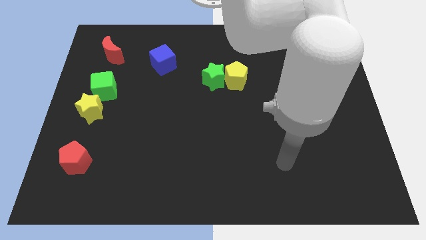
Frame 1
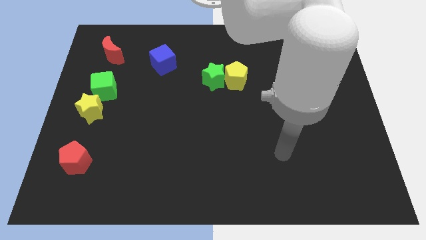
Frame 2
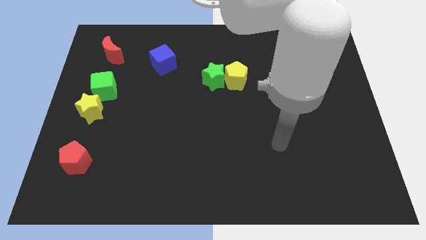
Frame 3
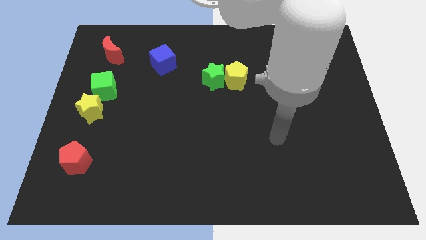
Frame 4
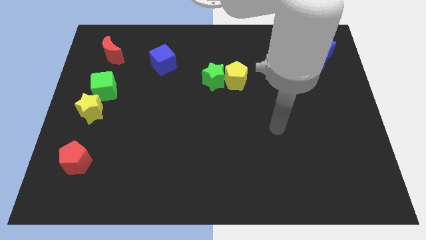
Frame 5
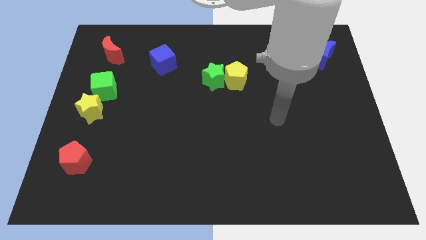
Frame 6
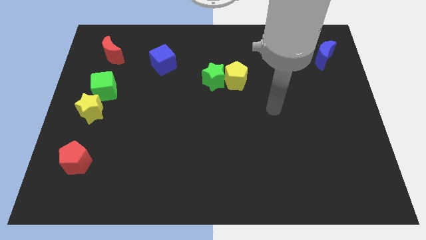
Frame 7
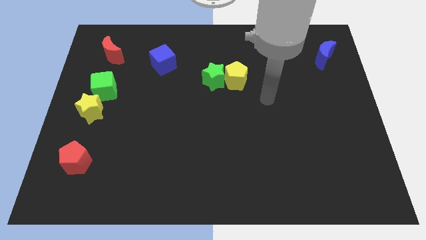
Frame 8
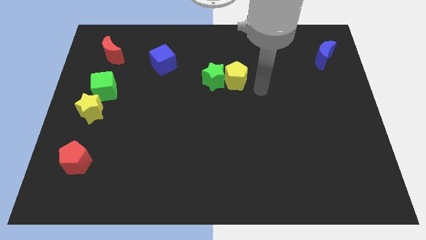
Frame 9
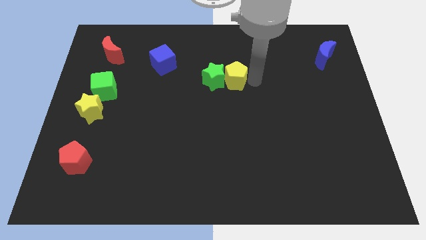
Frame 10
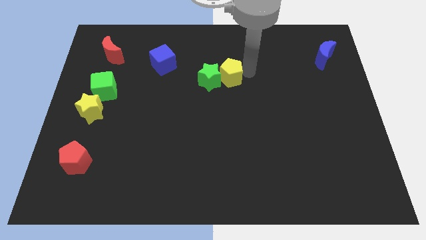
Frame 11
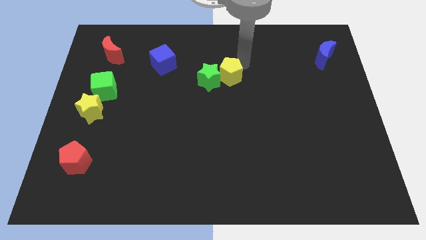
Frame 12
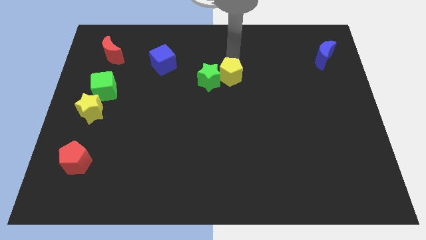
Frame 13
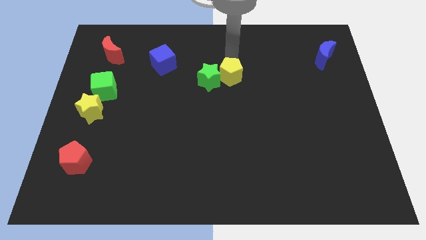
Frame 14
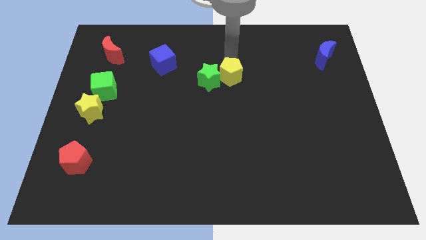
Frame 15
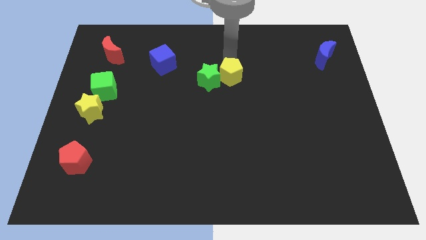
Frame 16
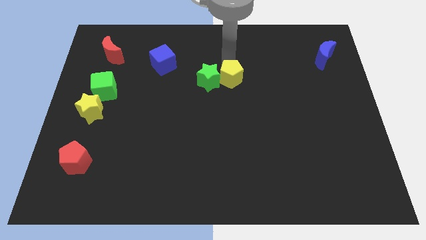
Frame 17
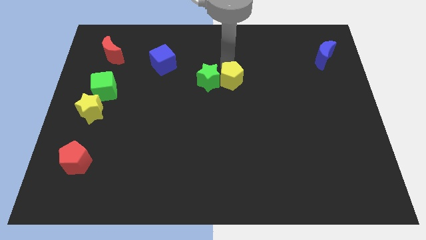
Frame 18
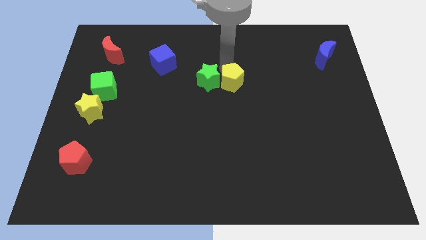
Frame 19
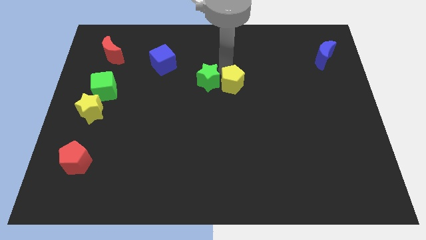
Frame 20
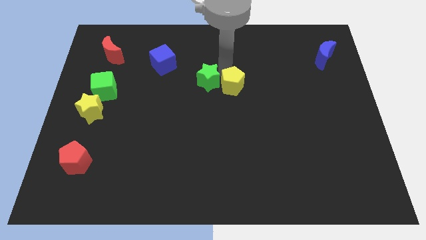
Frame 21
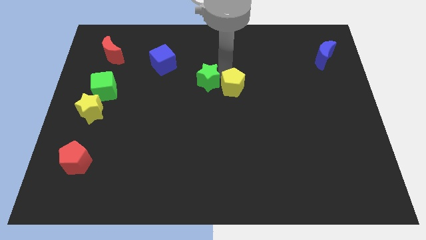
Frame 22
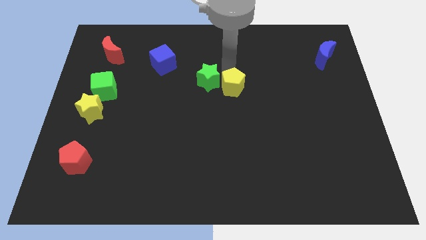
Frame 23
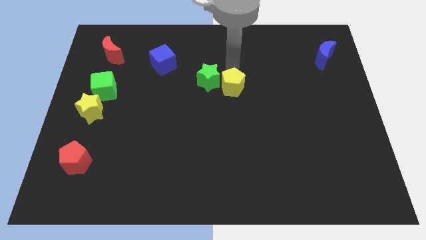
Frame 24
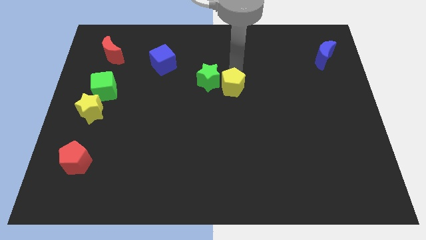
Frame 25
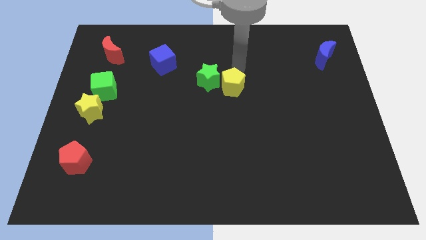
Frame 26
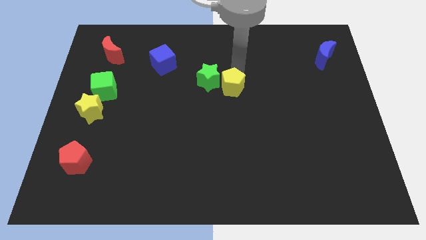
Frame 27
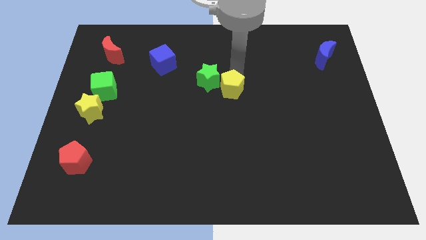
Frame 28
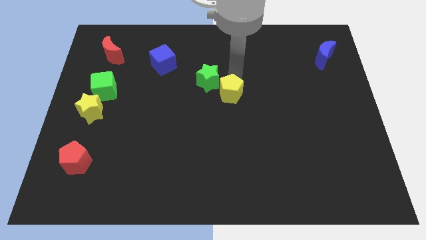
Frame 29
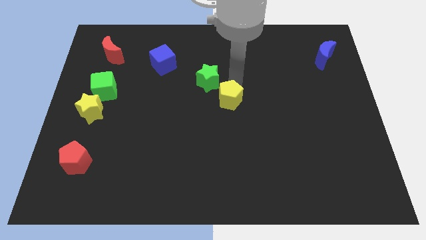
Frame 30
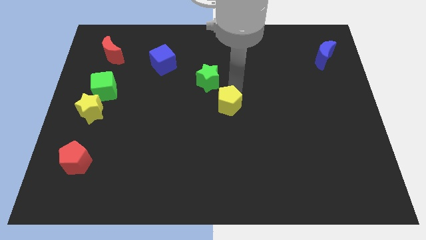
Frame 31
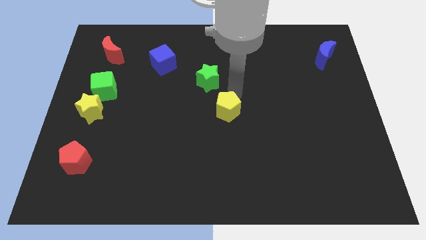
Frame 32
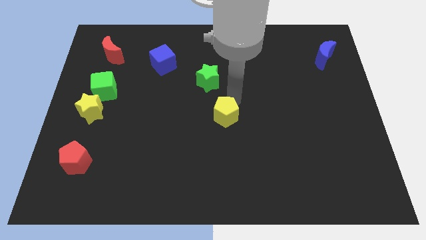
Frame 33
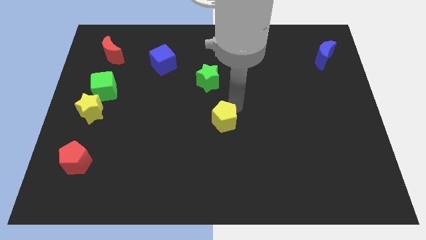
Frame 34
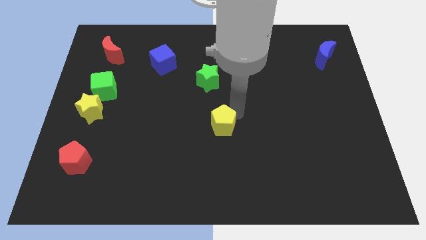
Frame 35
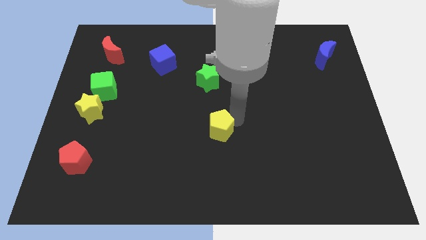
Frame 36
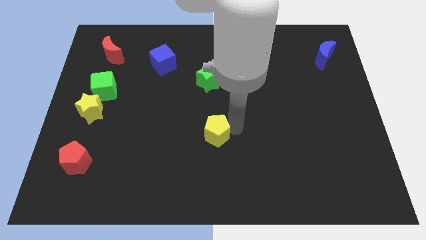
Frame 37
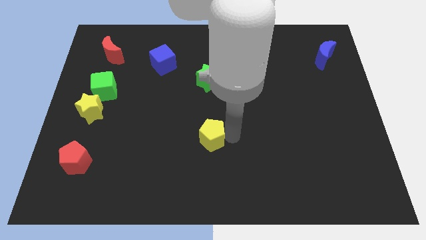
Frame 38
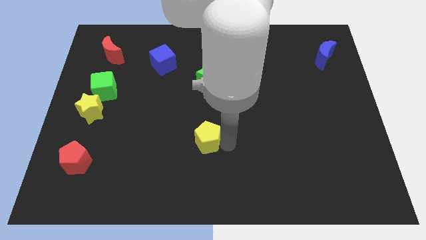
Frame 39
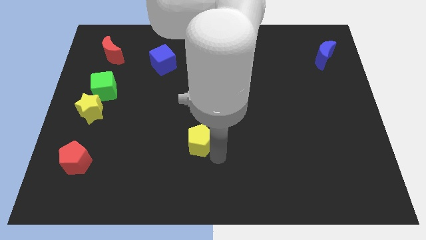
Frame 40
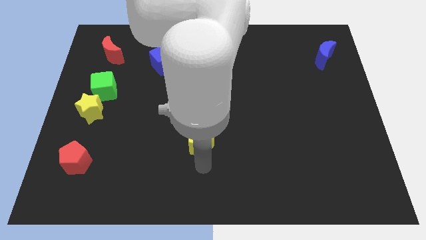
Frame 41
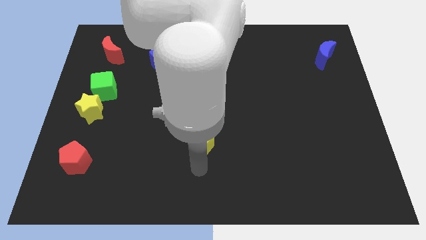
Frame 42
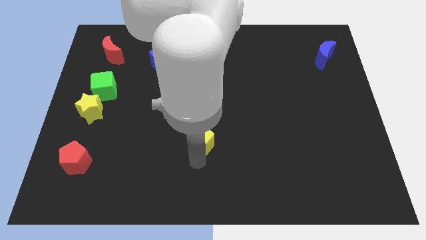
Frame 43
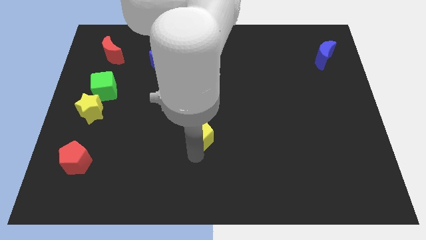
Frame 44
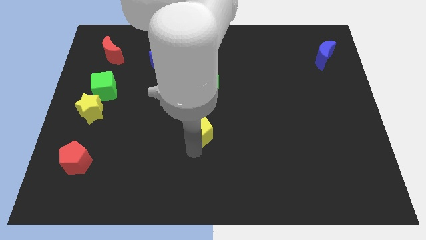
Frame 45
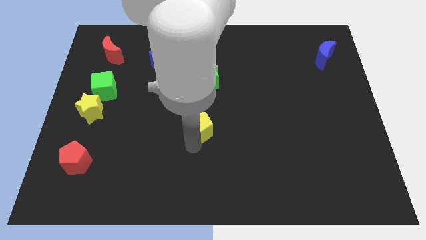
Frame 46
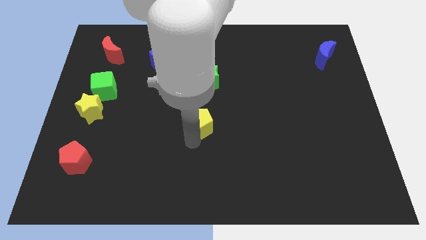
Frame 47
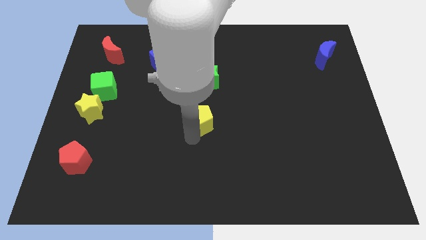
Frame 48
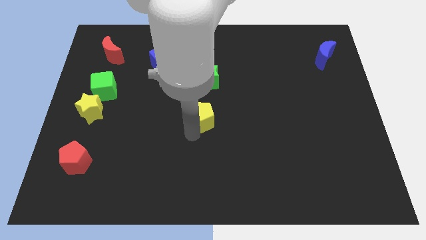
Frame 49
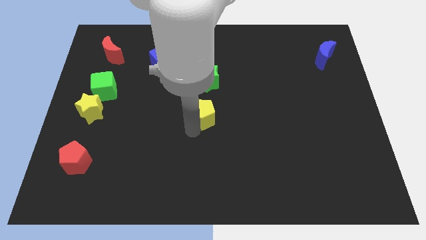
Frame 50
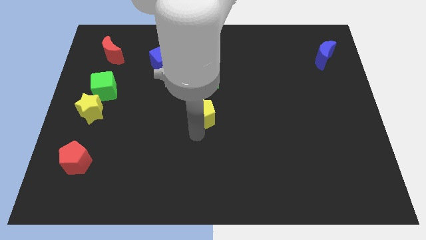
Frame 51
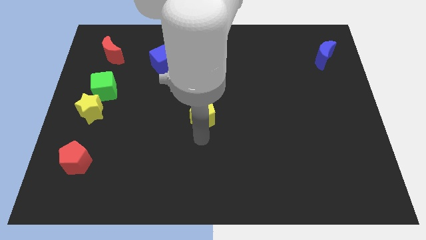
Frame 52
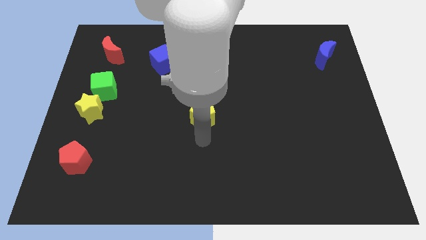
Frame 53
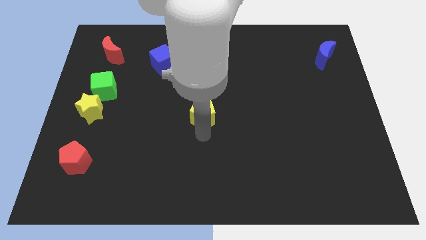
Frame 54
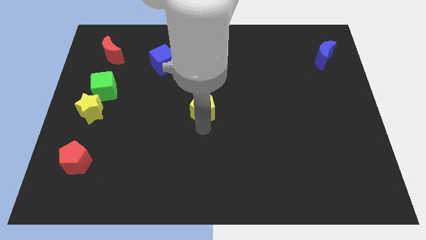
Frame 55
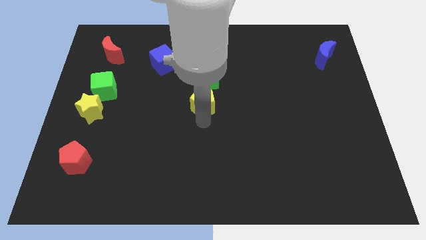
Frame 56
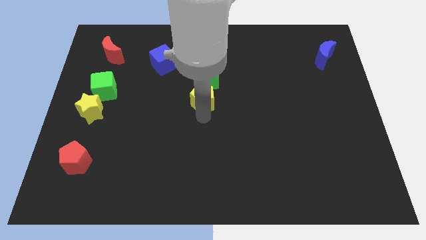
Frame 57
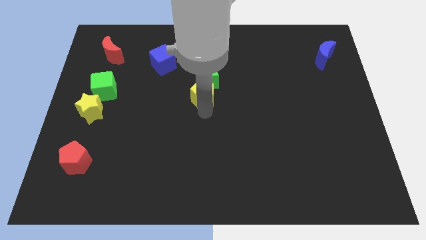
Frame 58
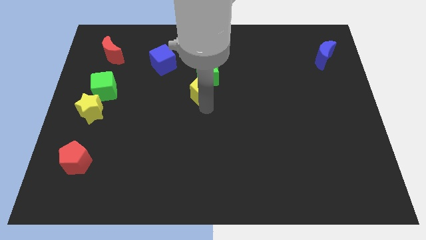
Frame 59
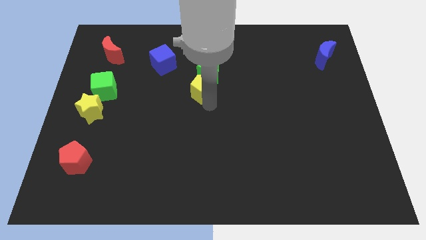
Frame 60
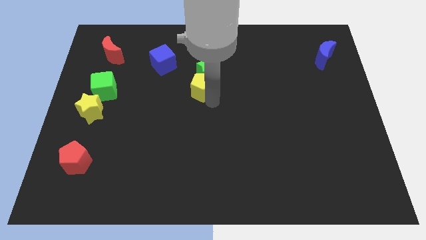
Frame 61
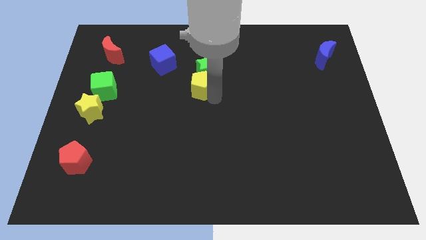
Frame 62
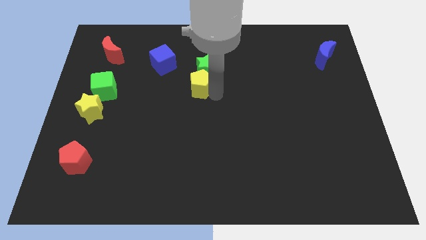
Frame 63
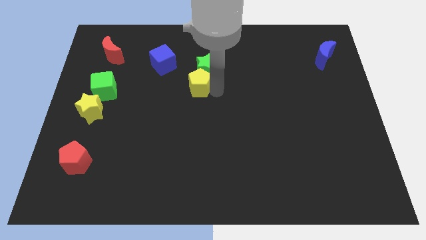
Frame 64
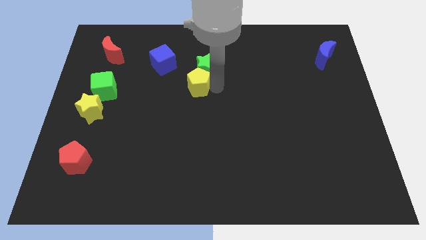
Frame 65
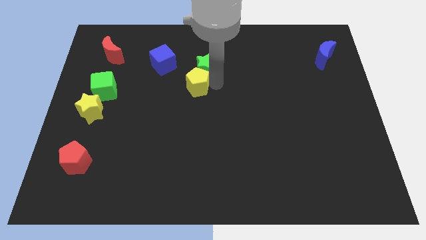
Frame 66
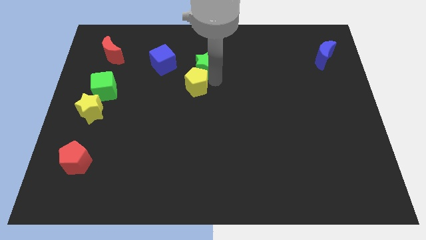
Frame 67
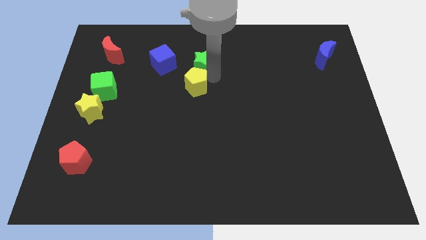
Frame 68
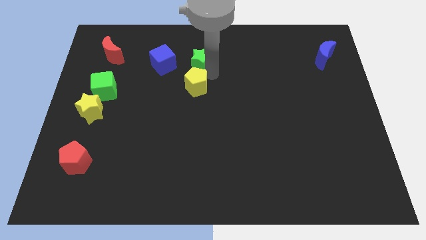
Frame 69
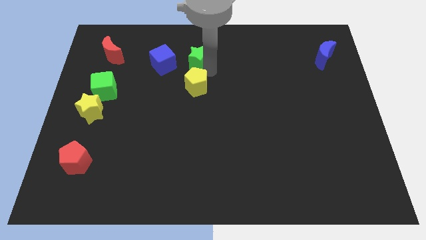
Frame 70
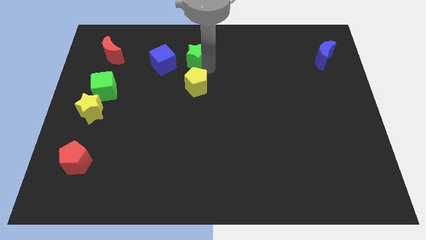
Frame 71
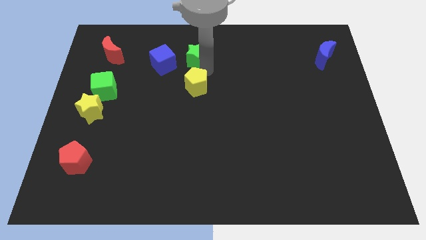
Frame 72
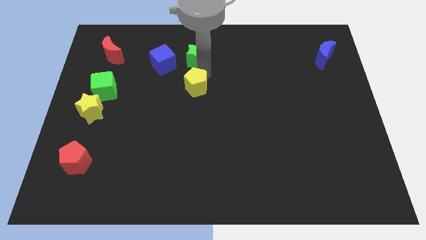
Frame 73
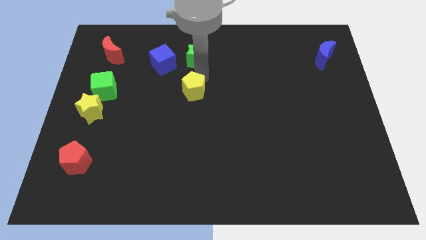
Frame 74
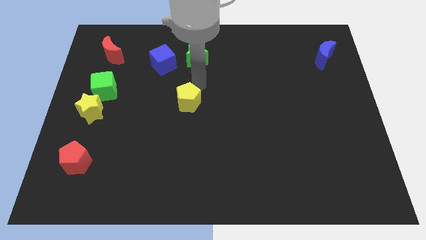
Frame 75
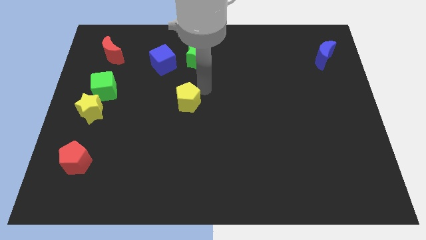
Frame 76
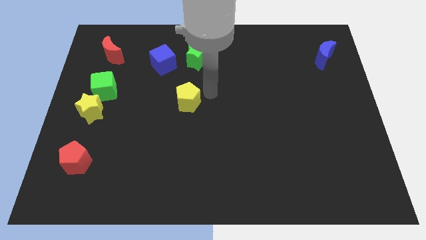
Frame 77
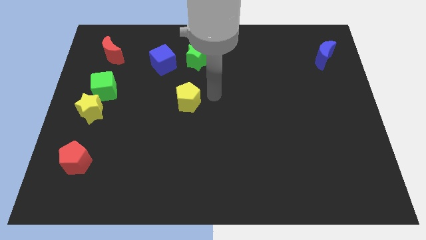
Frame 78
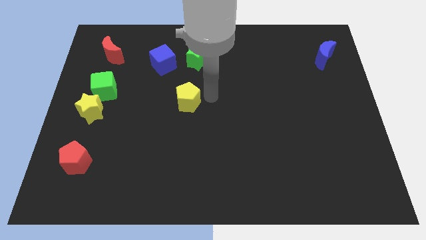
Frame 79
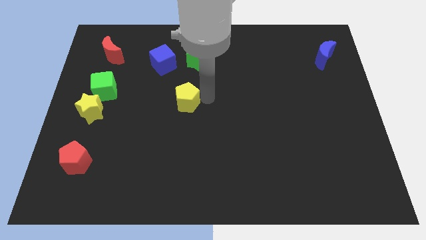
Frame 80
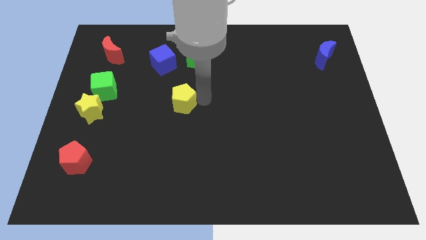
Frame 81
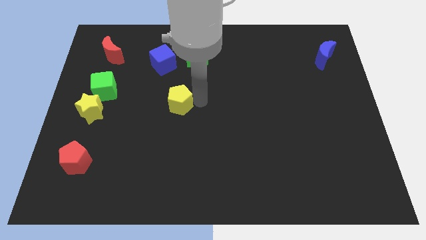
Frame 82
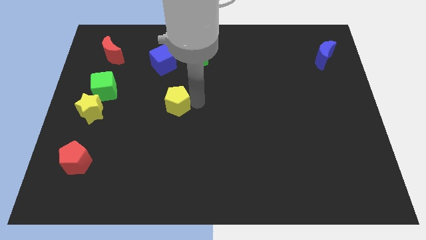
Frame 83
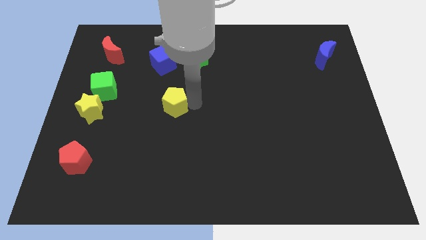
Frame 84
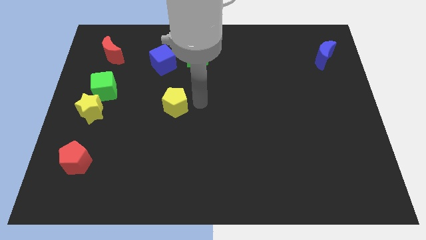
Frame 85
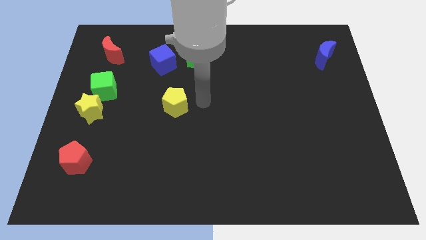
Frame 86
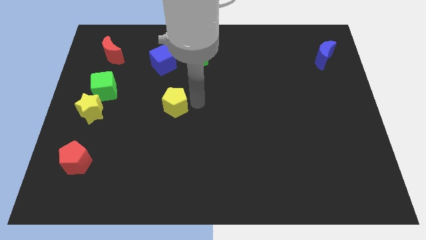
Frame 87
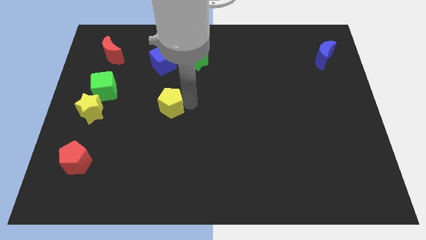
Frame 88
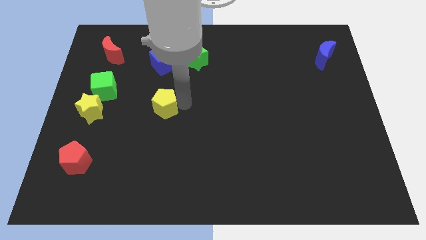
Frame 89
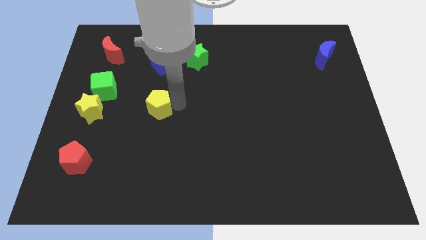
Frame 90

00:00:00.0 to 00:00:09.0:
put the yellow pentagon to the right side of the yellow star
